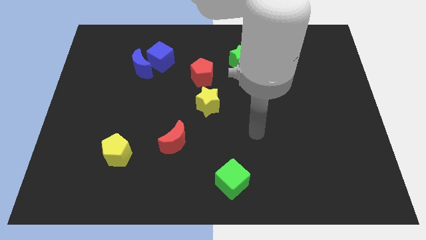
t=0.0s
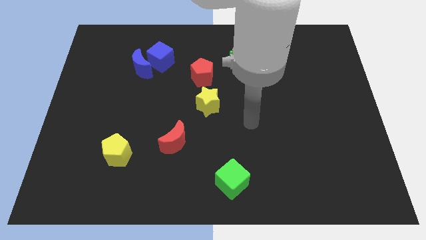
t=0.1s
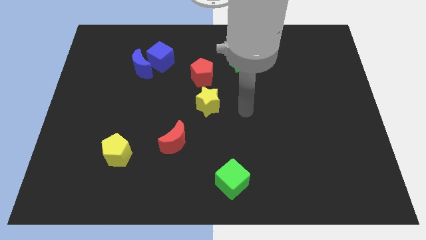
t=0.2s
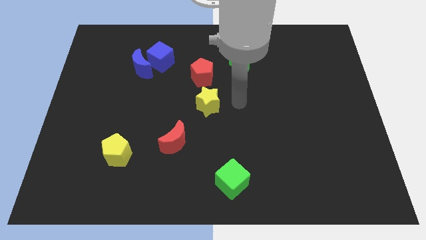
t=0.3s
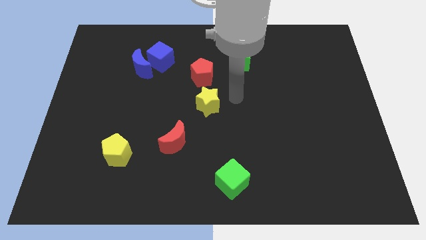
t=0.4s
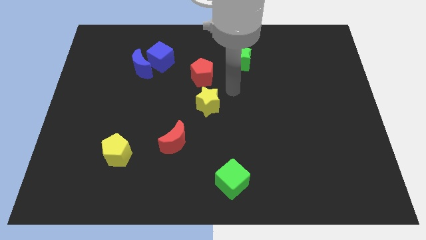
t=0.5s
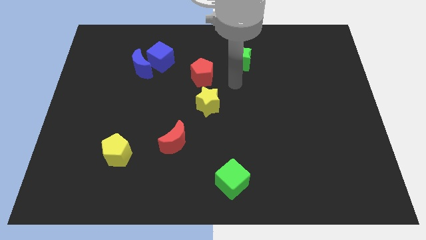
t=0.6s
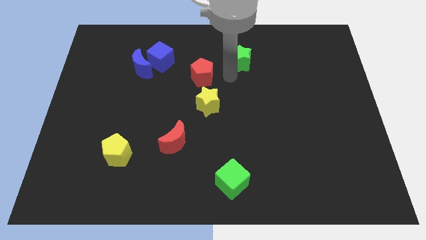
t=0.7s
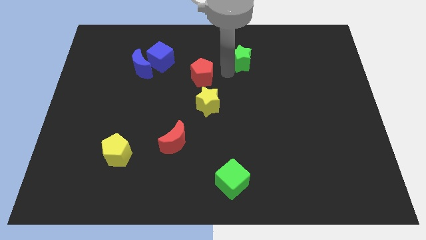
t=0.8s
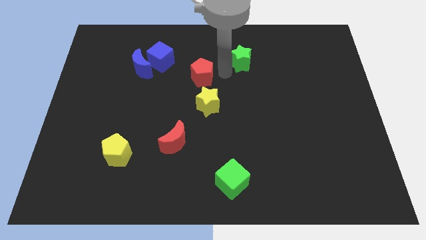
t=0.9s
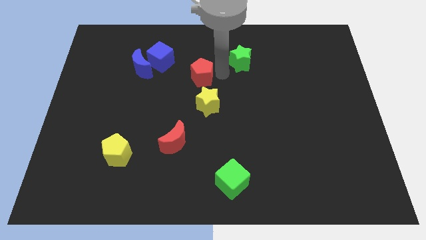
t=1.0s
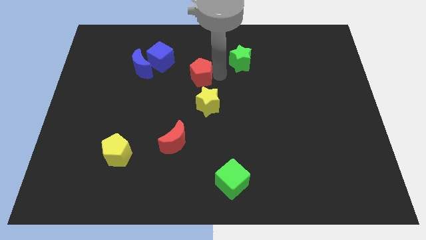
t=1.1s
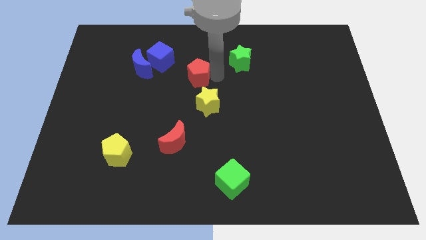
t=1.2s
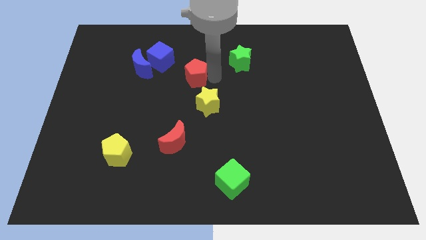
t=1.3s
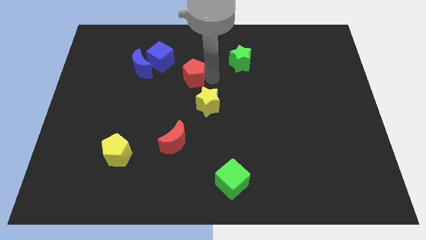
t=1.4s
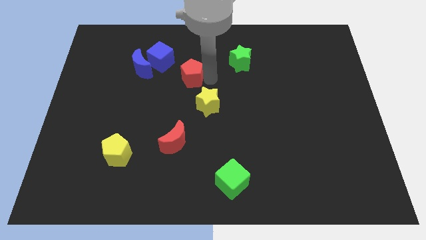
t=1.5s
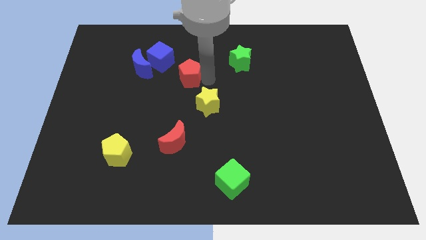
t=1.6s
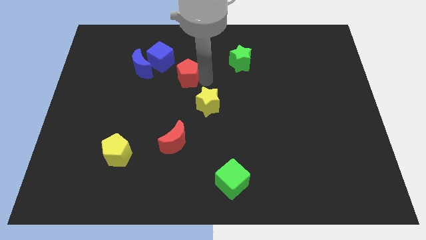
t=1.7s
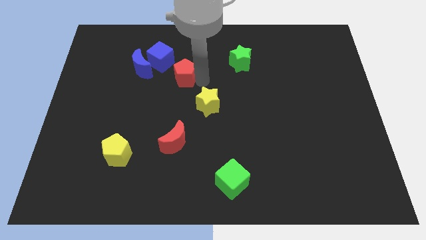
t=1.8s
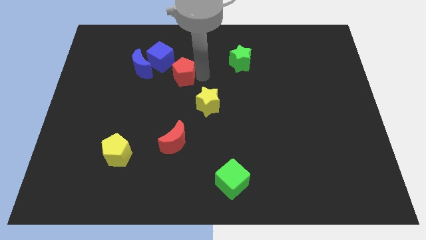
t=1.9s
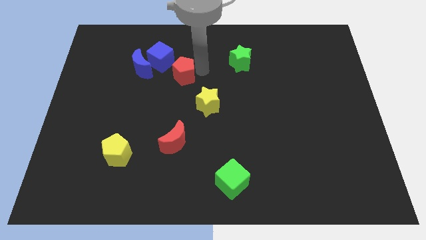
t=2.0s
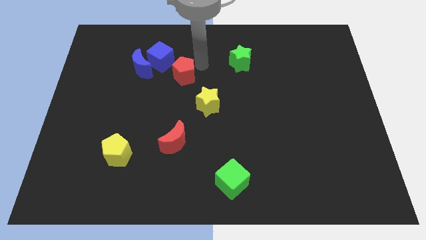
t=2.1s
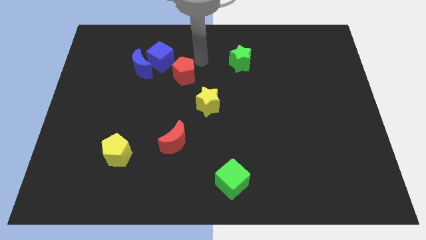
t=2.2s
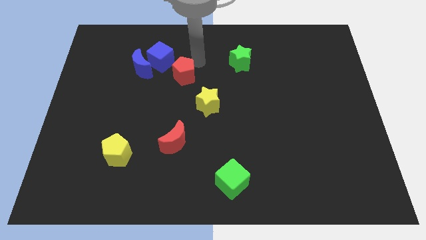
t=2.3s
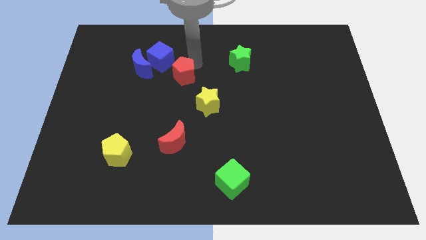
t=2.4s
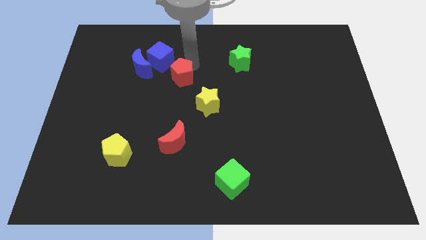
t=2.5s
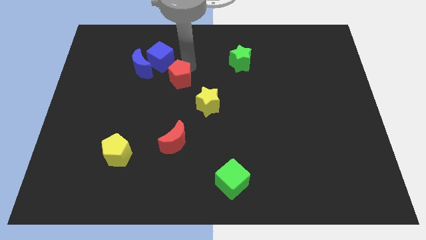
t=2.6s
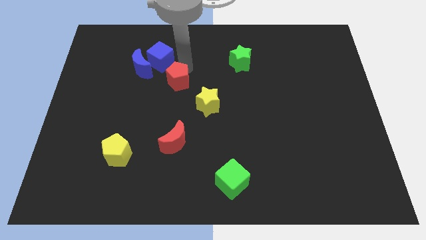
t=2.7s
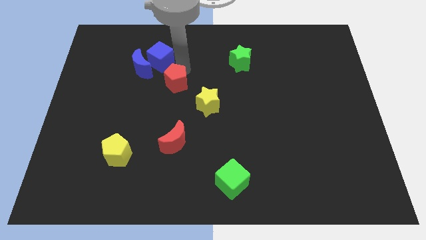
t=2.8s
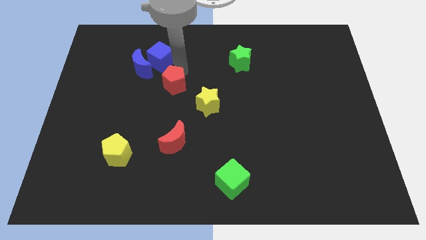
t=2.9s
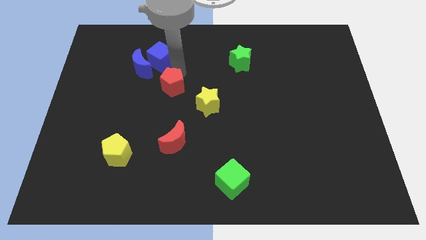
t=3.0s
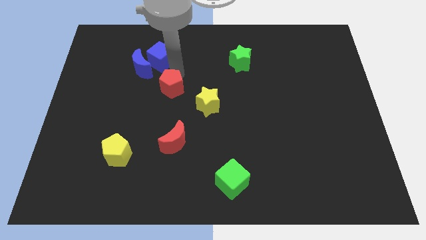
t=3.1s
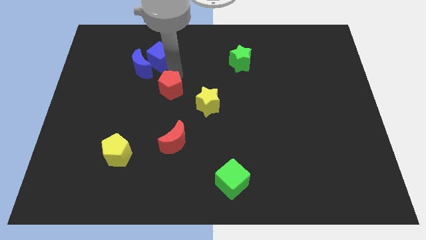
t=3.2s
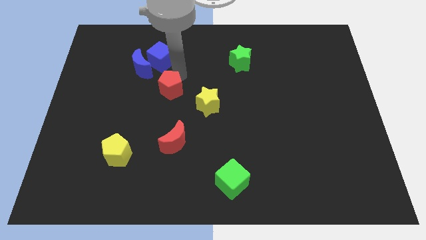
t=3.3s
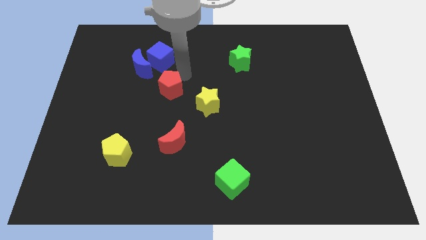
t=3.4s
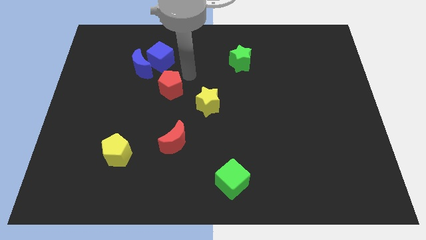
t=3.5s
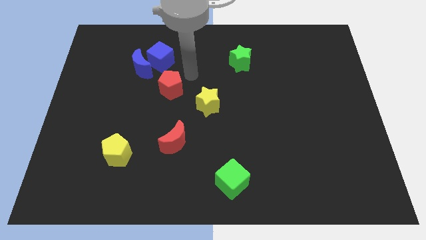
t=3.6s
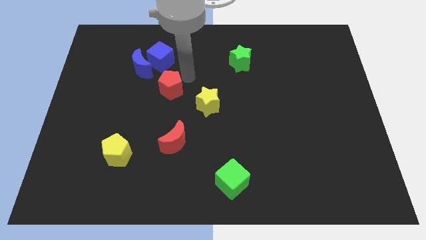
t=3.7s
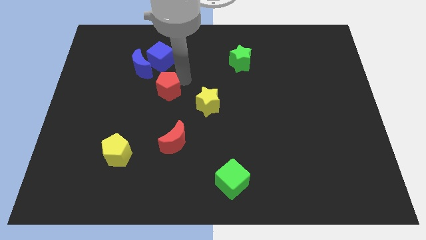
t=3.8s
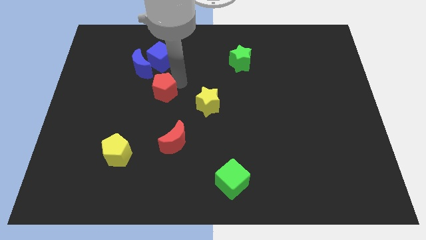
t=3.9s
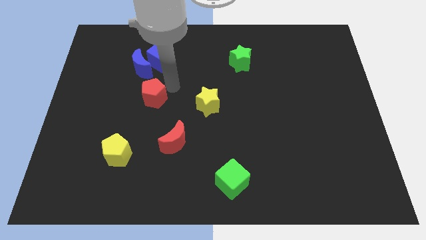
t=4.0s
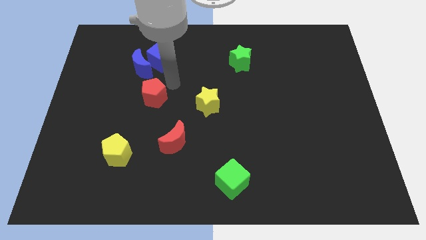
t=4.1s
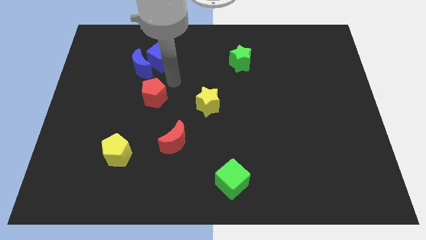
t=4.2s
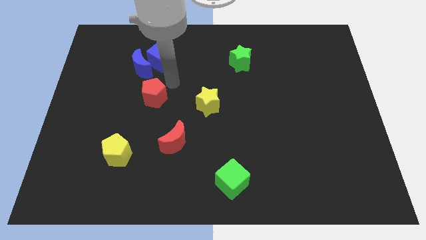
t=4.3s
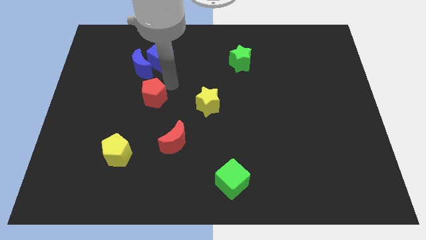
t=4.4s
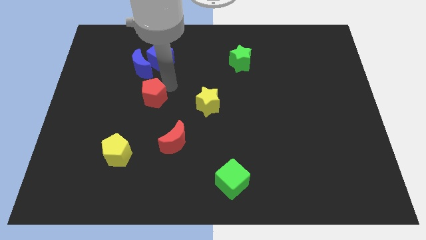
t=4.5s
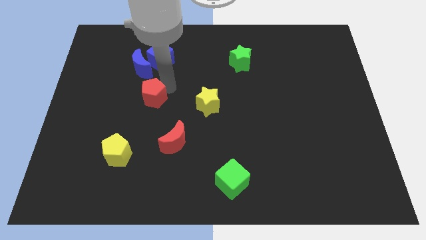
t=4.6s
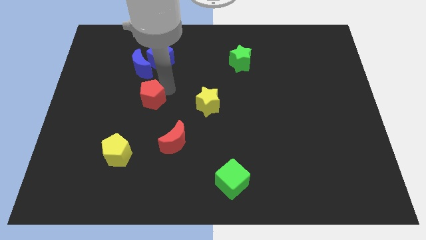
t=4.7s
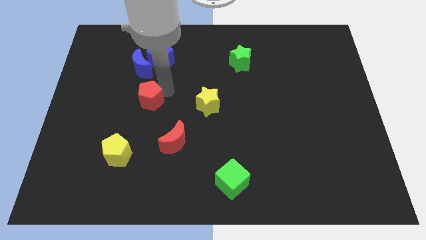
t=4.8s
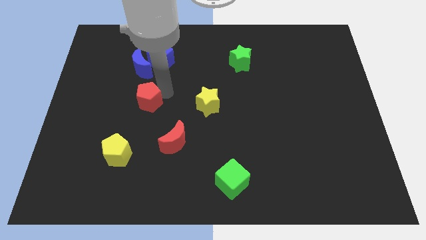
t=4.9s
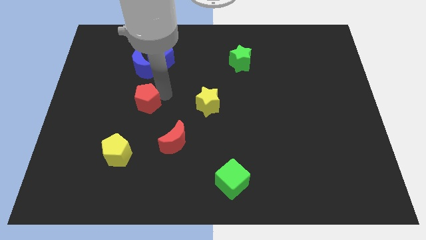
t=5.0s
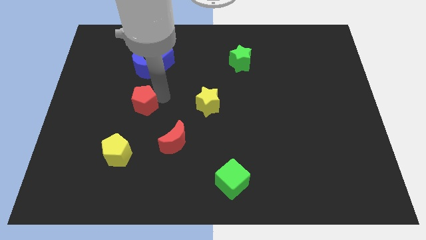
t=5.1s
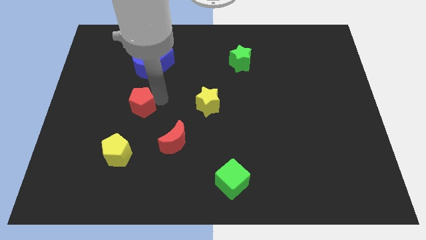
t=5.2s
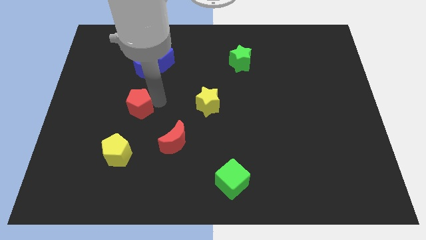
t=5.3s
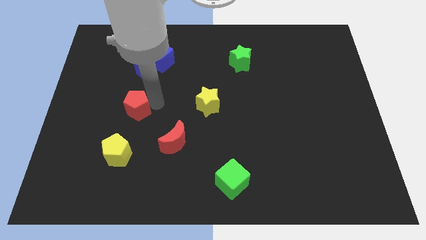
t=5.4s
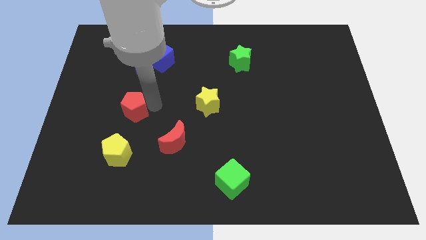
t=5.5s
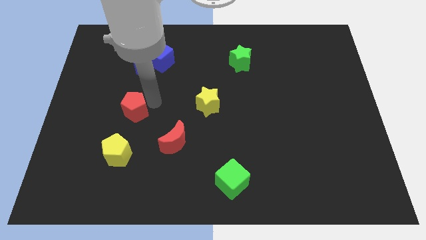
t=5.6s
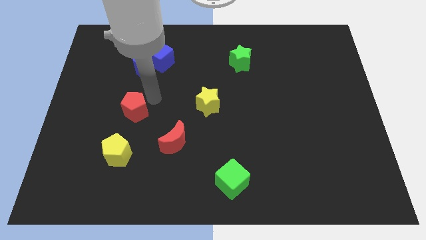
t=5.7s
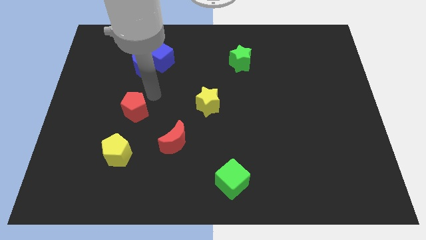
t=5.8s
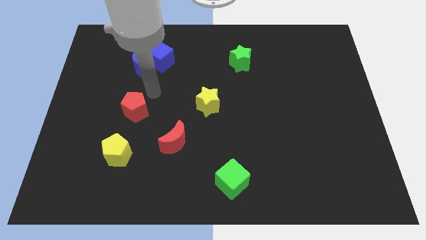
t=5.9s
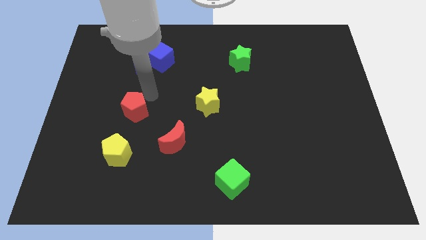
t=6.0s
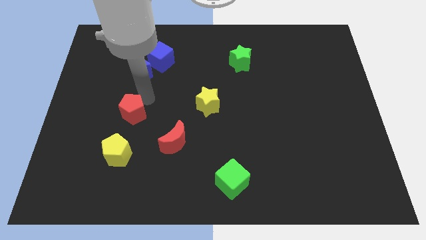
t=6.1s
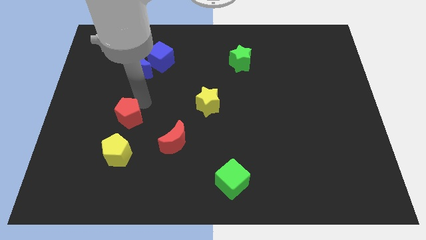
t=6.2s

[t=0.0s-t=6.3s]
move the red pentagon diagonally down and left

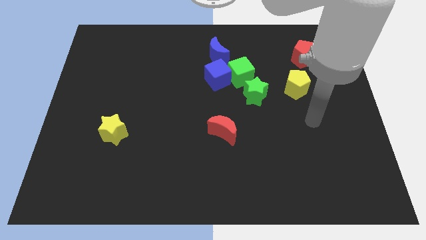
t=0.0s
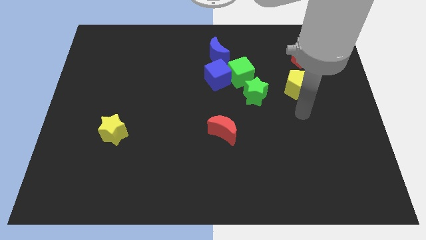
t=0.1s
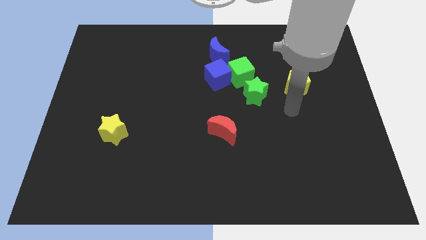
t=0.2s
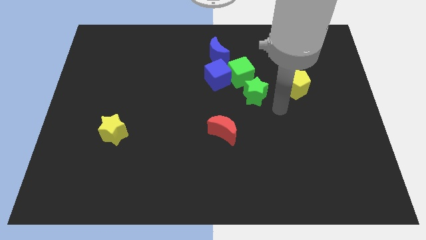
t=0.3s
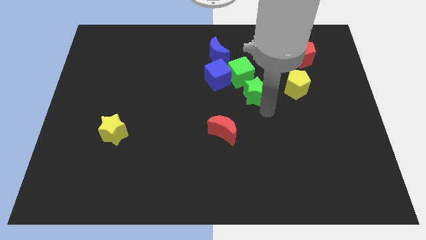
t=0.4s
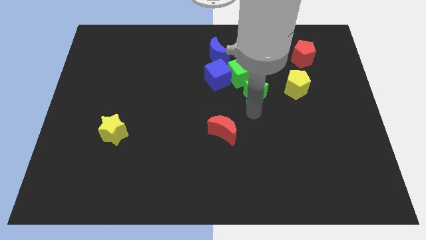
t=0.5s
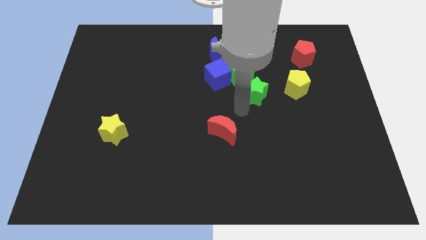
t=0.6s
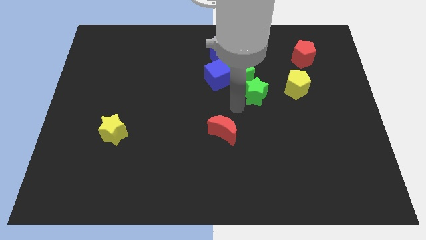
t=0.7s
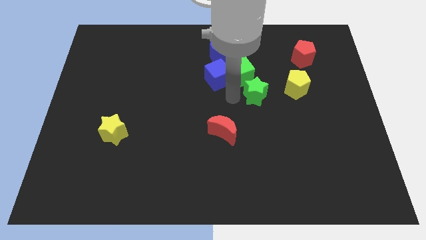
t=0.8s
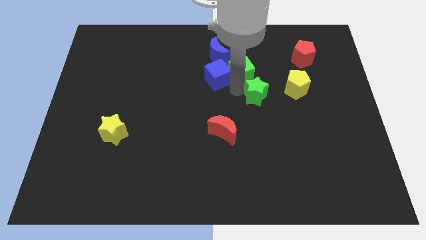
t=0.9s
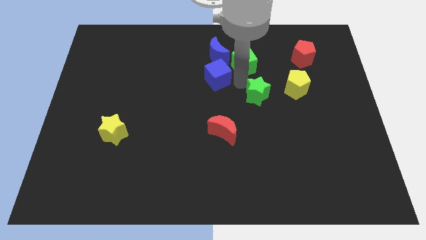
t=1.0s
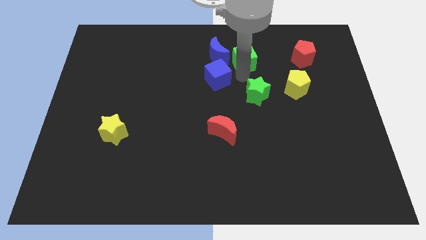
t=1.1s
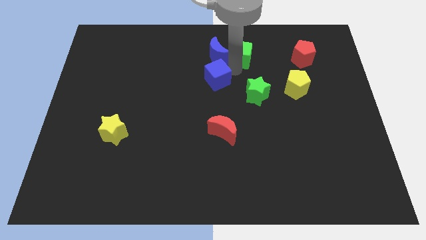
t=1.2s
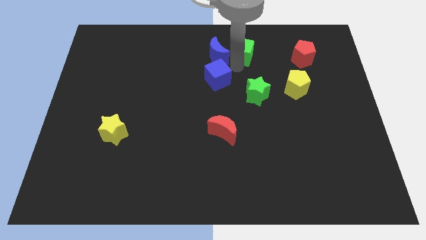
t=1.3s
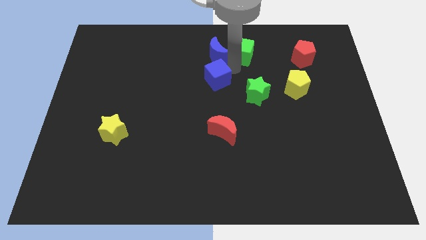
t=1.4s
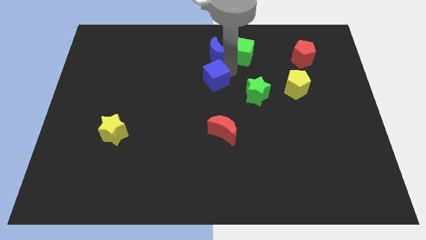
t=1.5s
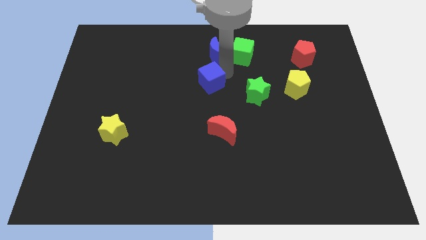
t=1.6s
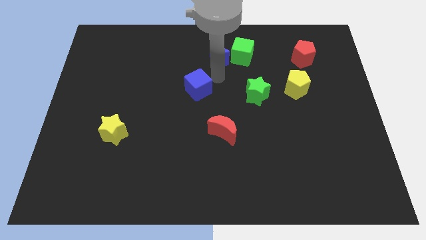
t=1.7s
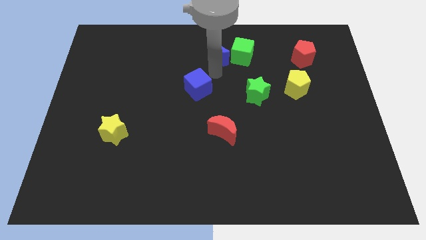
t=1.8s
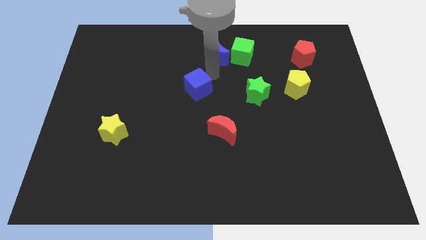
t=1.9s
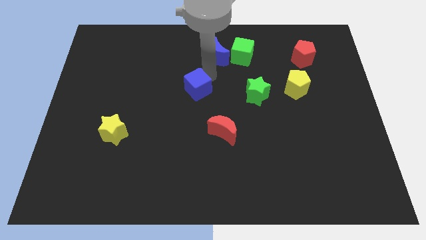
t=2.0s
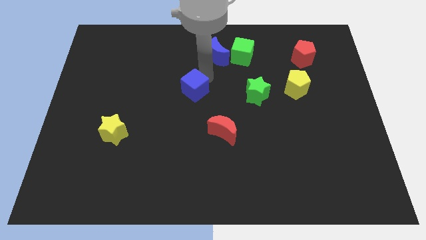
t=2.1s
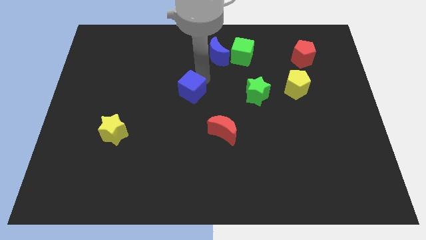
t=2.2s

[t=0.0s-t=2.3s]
move the blue cube downwards and to the left diagonally a bit
